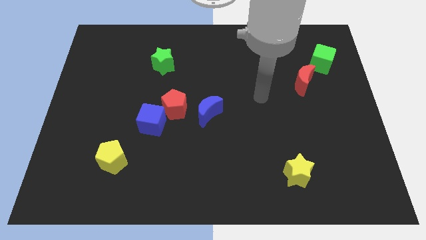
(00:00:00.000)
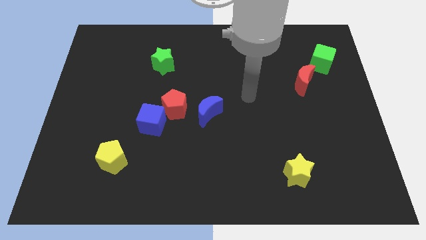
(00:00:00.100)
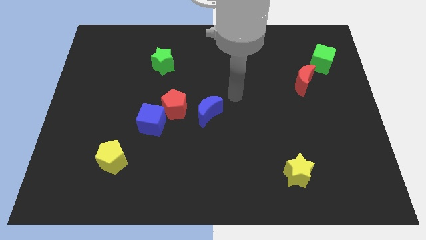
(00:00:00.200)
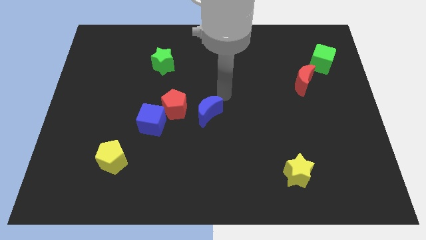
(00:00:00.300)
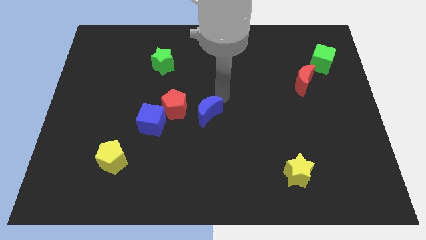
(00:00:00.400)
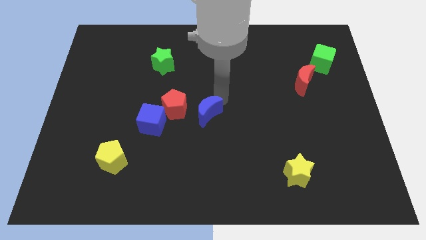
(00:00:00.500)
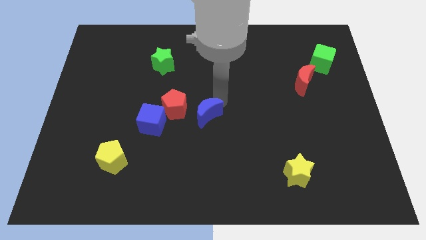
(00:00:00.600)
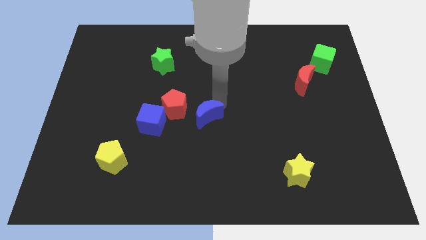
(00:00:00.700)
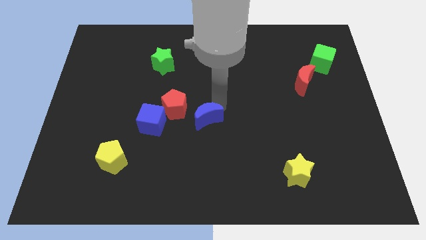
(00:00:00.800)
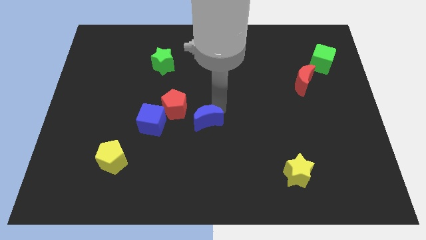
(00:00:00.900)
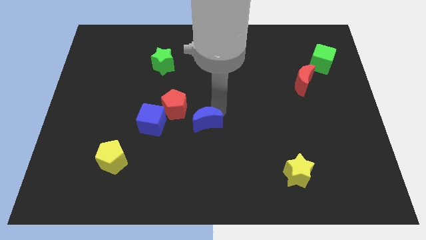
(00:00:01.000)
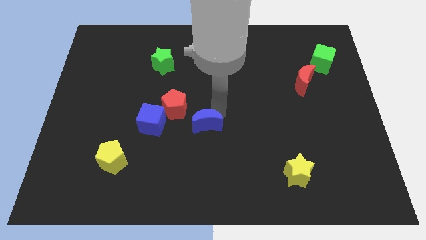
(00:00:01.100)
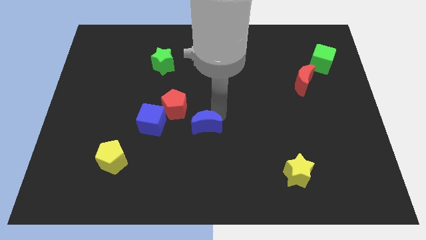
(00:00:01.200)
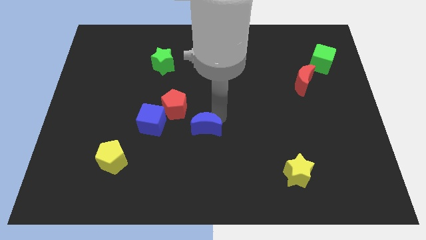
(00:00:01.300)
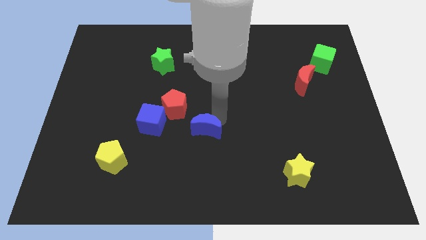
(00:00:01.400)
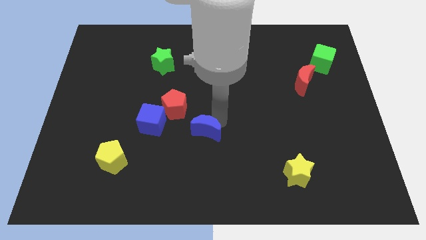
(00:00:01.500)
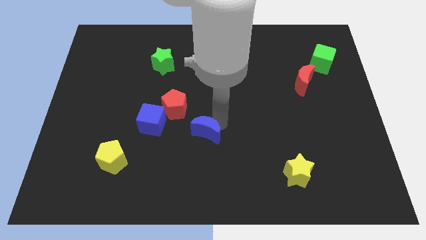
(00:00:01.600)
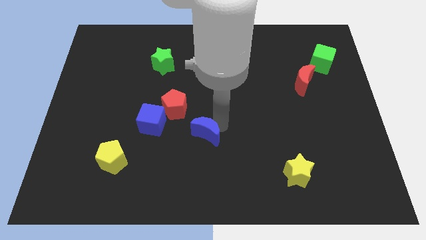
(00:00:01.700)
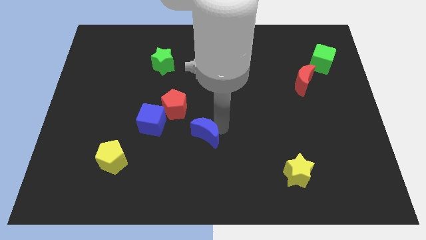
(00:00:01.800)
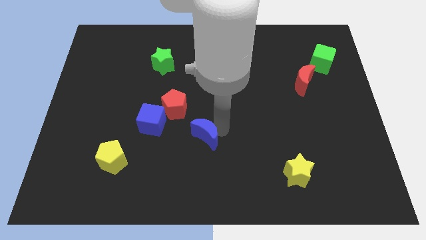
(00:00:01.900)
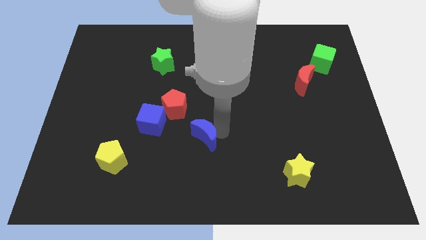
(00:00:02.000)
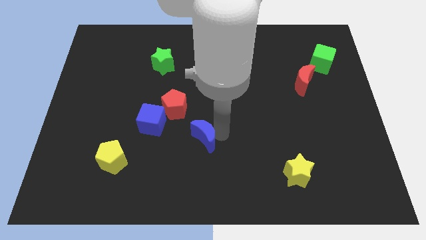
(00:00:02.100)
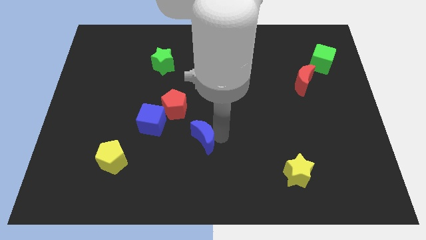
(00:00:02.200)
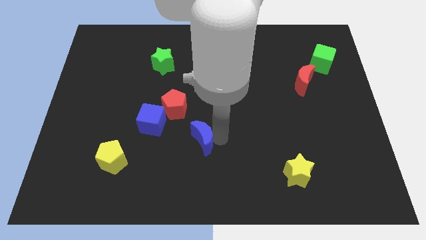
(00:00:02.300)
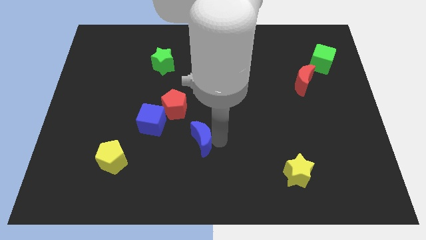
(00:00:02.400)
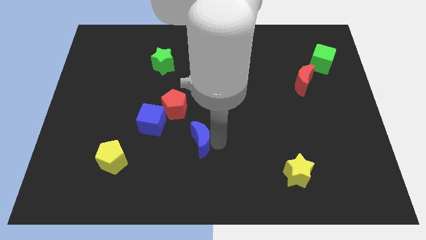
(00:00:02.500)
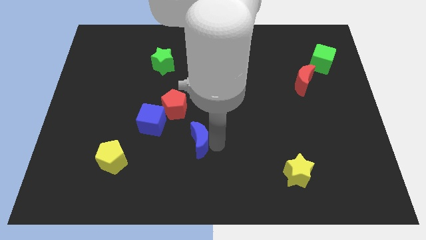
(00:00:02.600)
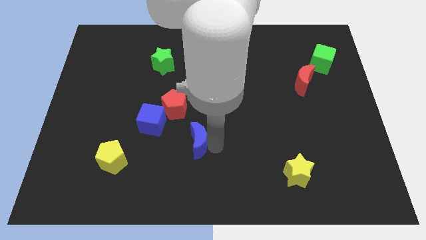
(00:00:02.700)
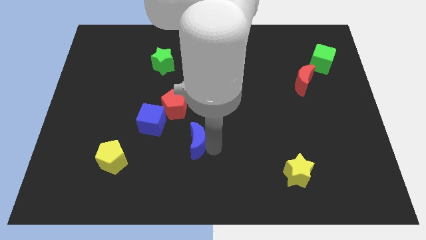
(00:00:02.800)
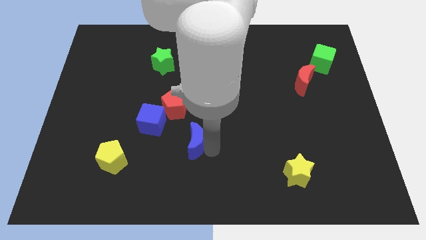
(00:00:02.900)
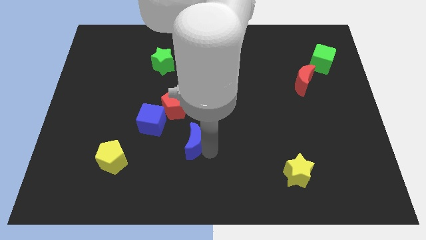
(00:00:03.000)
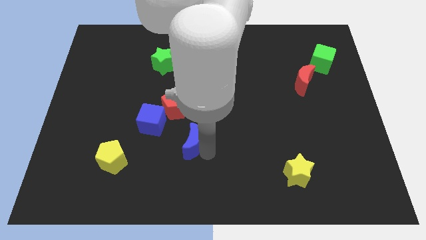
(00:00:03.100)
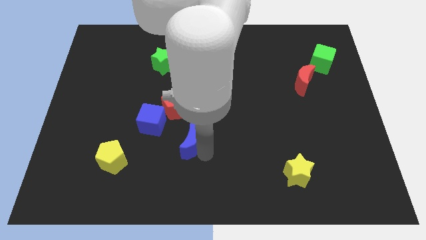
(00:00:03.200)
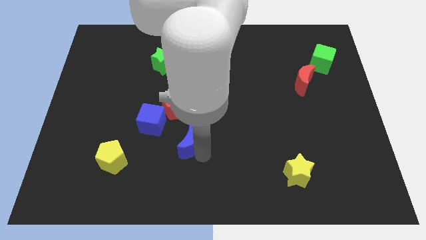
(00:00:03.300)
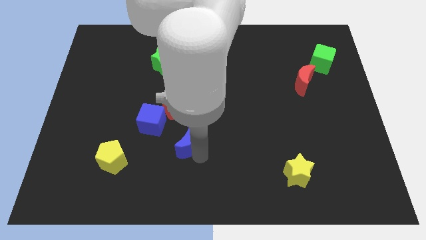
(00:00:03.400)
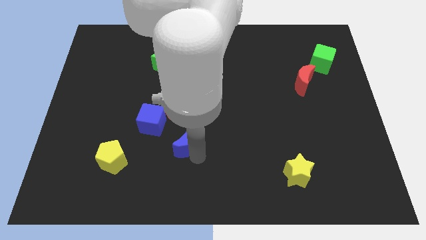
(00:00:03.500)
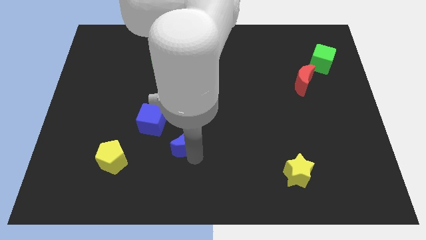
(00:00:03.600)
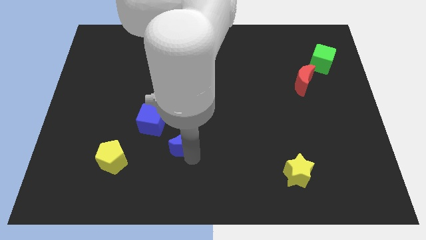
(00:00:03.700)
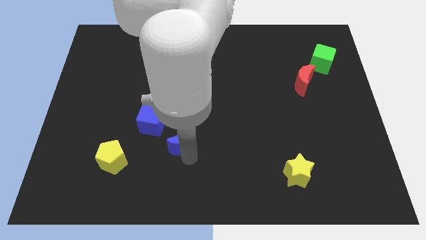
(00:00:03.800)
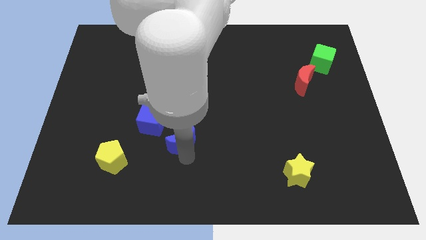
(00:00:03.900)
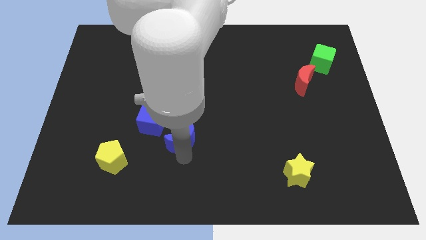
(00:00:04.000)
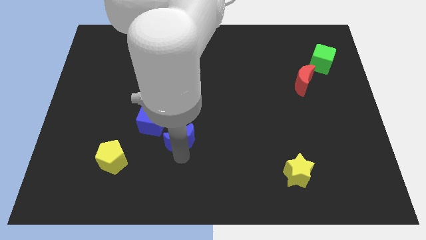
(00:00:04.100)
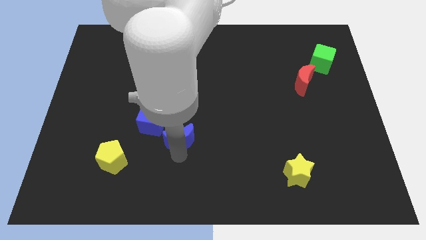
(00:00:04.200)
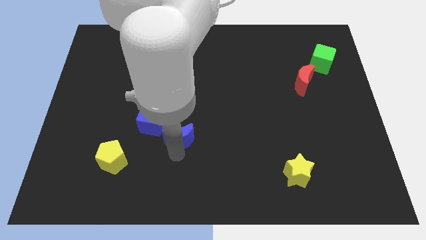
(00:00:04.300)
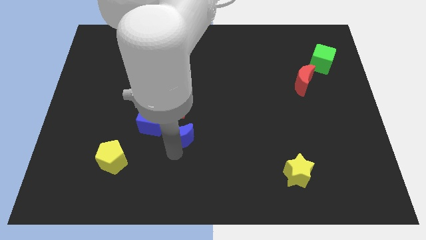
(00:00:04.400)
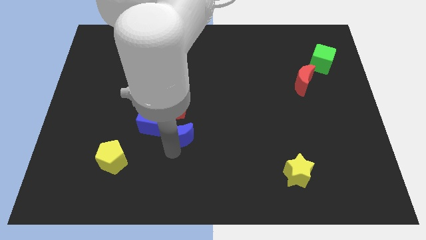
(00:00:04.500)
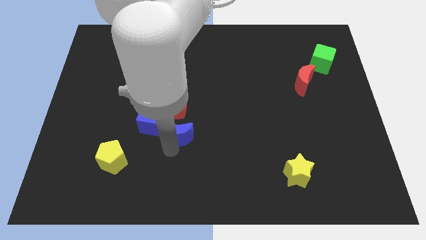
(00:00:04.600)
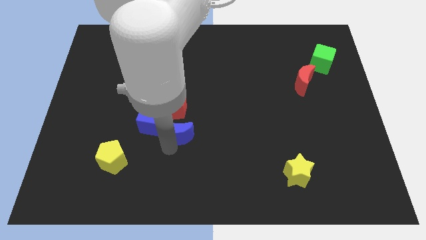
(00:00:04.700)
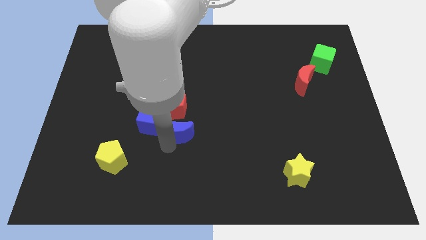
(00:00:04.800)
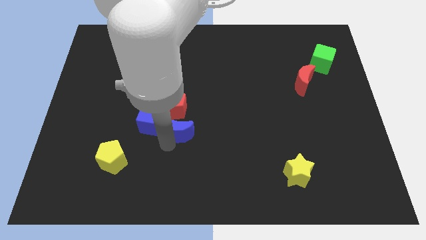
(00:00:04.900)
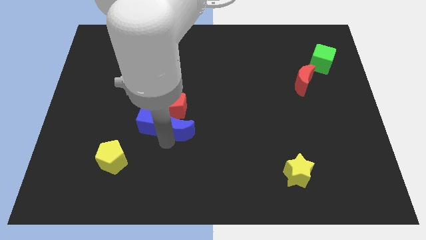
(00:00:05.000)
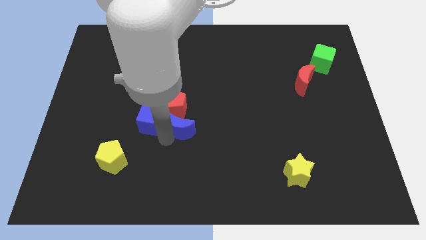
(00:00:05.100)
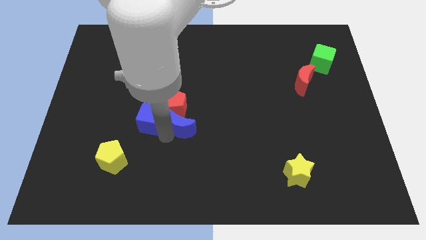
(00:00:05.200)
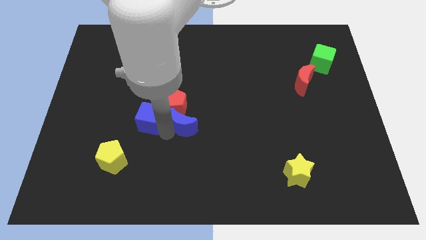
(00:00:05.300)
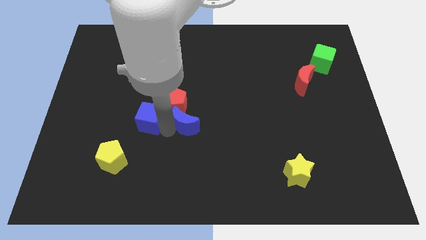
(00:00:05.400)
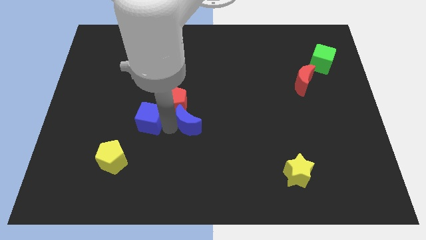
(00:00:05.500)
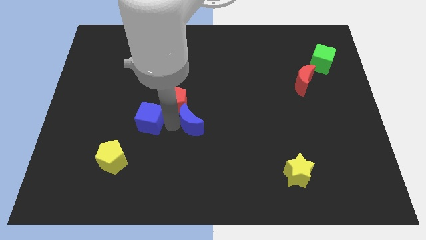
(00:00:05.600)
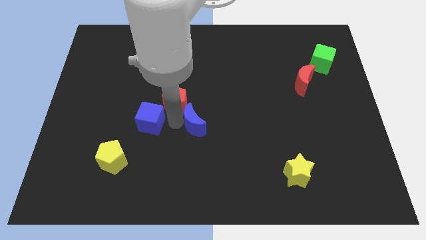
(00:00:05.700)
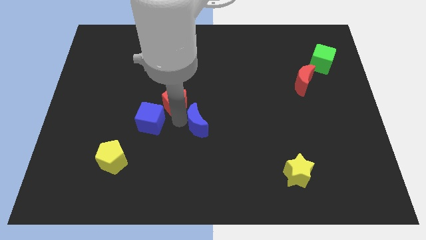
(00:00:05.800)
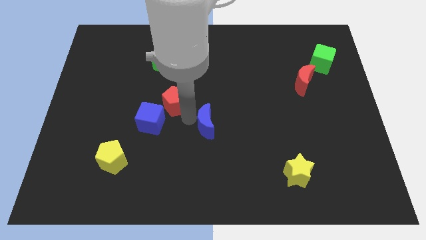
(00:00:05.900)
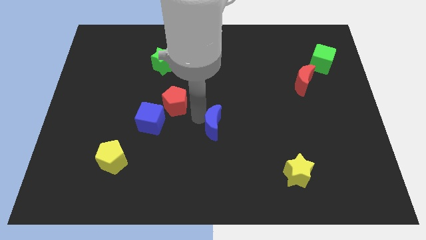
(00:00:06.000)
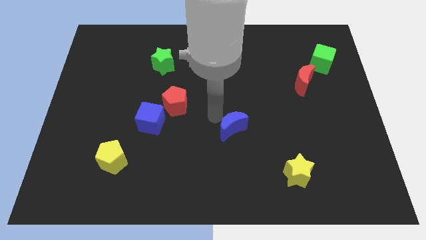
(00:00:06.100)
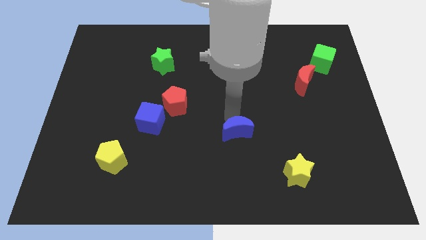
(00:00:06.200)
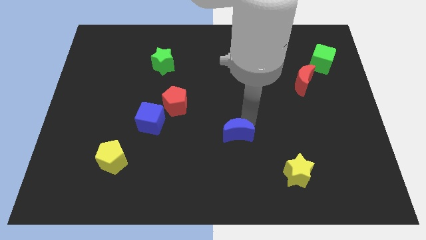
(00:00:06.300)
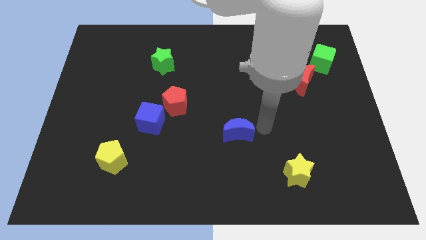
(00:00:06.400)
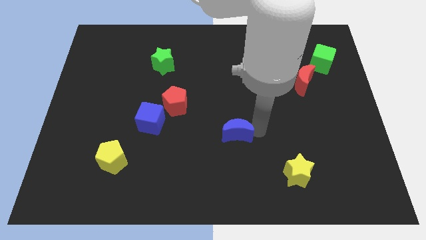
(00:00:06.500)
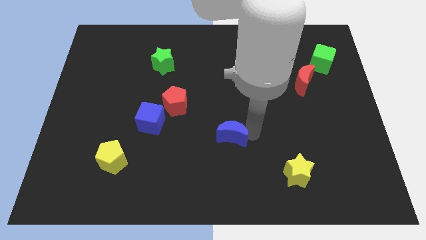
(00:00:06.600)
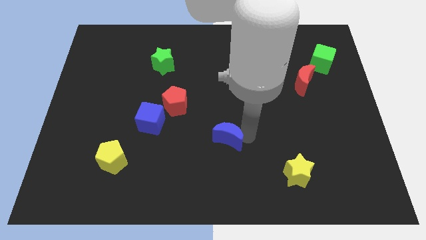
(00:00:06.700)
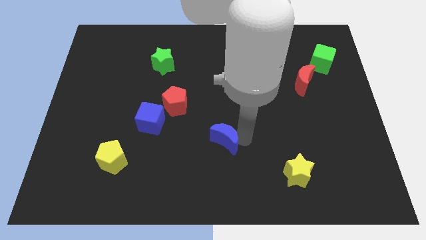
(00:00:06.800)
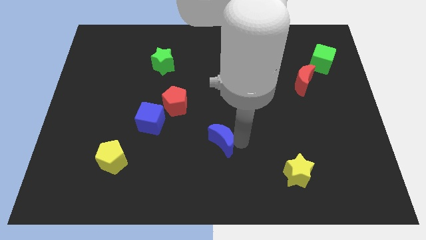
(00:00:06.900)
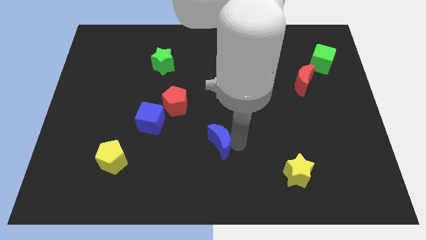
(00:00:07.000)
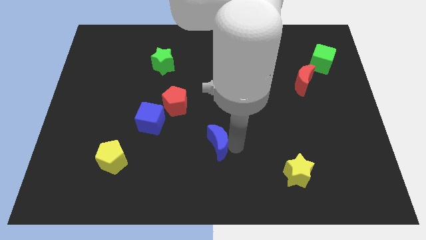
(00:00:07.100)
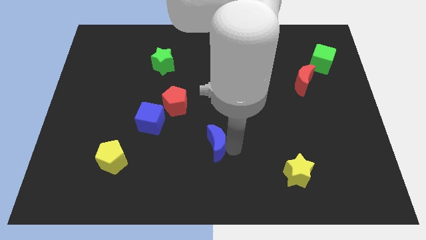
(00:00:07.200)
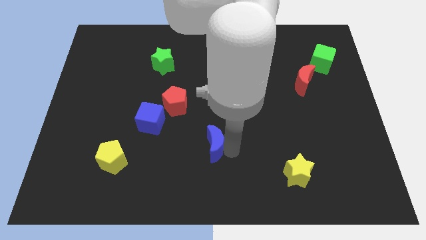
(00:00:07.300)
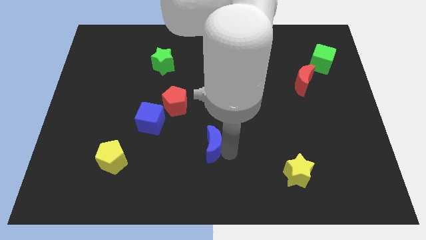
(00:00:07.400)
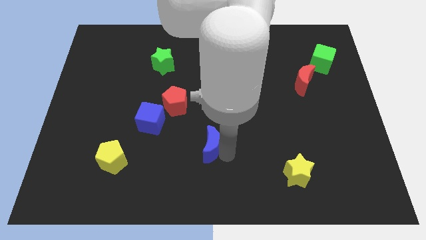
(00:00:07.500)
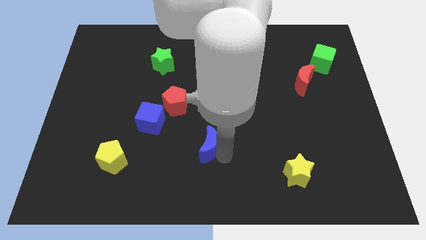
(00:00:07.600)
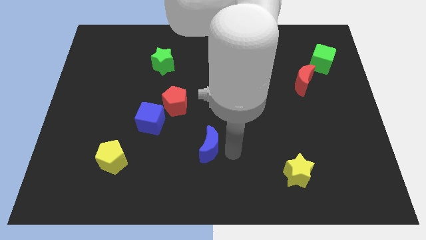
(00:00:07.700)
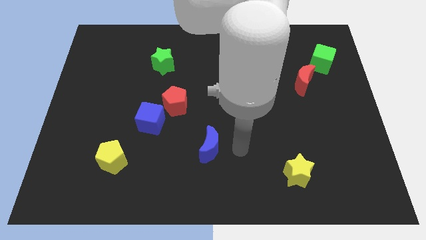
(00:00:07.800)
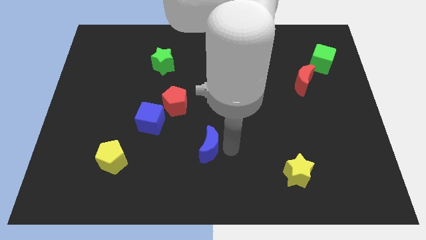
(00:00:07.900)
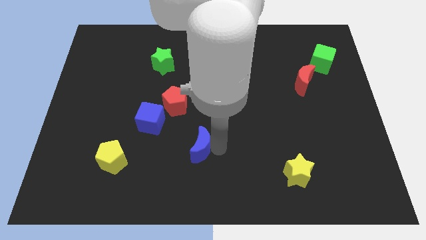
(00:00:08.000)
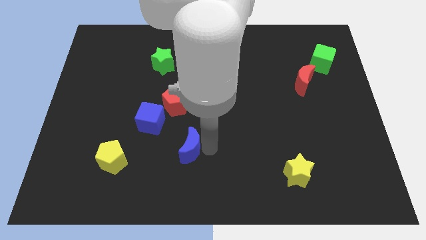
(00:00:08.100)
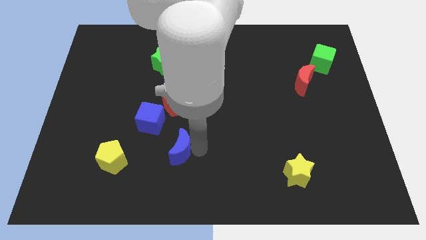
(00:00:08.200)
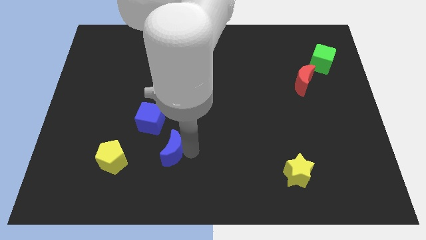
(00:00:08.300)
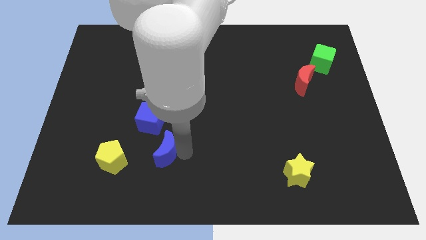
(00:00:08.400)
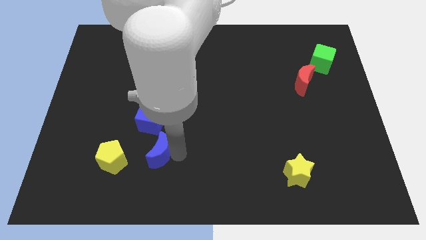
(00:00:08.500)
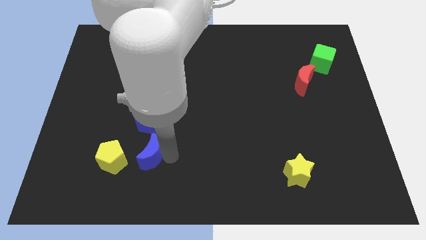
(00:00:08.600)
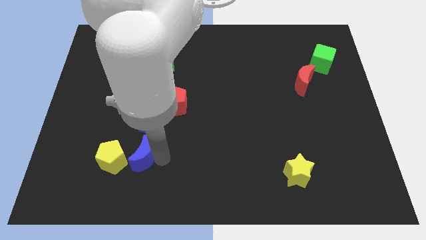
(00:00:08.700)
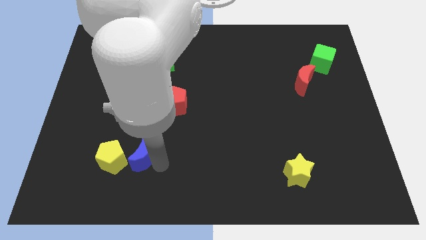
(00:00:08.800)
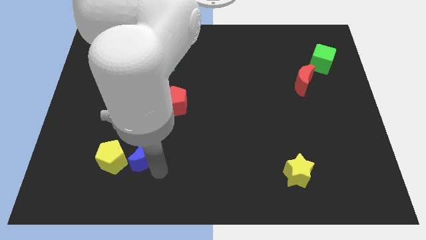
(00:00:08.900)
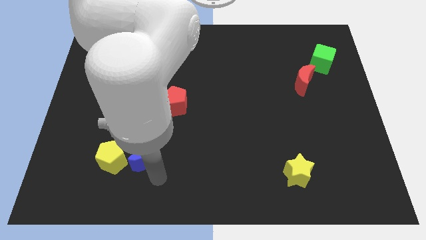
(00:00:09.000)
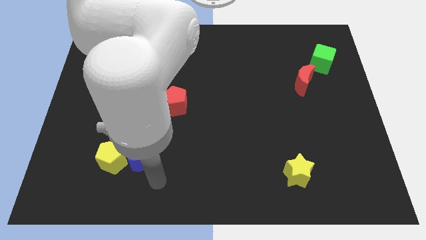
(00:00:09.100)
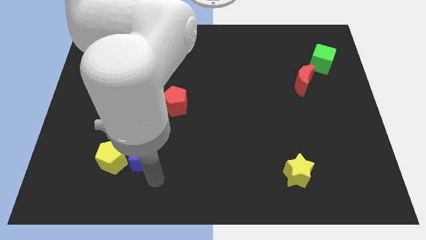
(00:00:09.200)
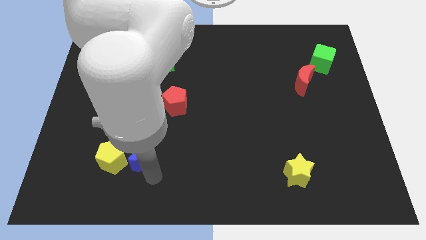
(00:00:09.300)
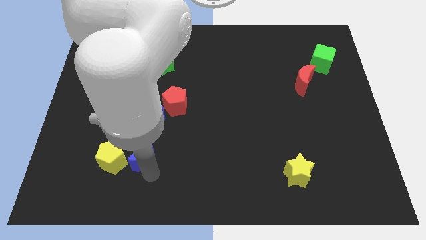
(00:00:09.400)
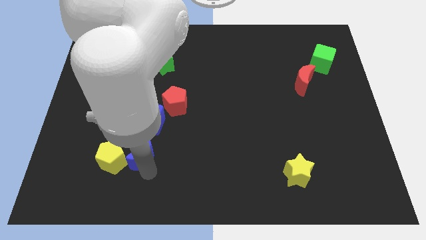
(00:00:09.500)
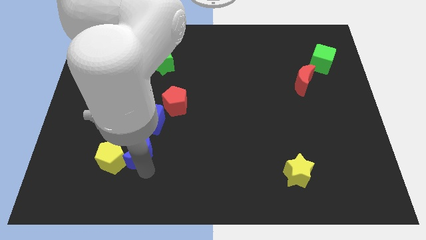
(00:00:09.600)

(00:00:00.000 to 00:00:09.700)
slide the blue moon a bit left
